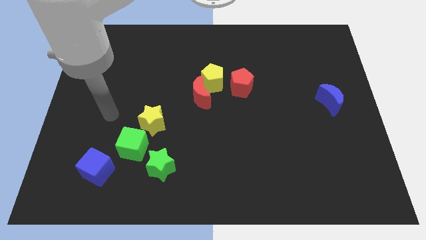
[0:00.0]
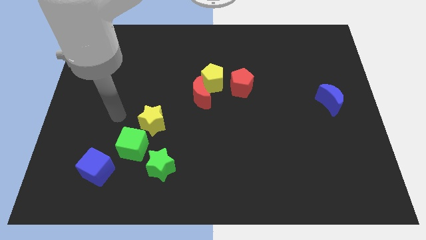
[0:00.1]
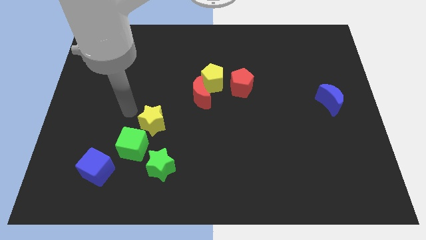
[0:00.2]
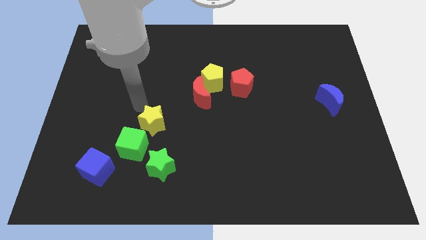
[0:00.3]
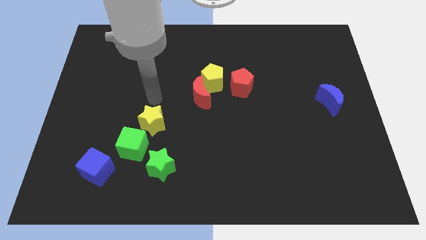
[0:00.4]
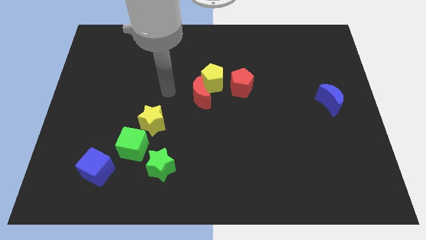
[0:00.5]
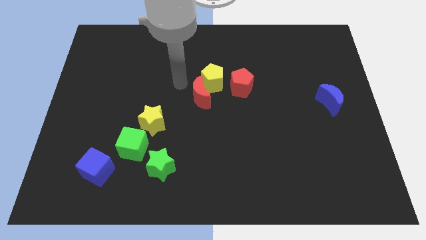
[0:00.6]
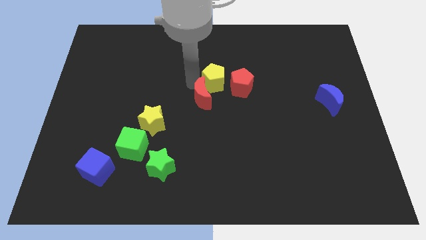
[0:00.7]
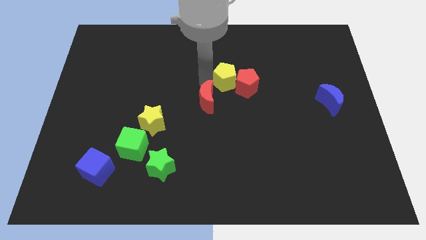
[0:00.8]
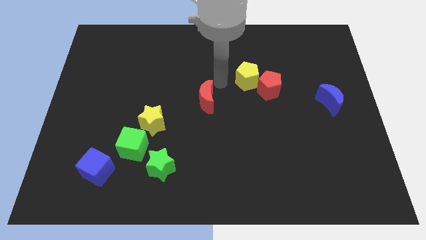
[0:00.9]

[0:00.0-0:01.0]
pull the red moon apart from the yellow pentagon

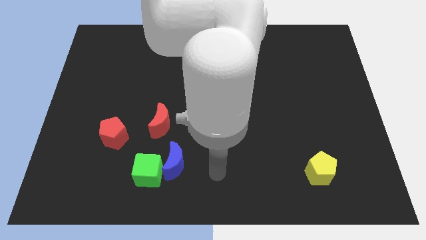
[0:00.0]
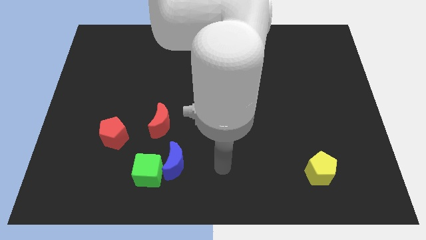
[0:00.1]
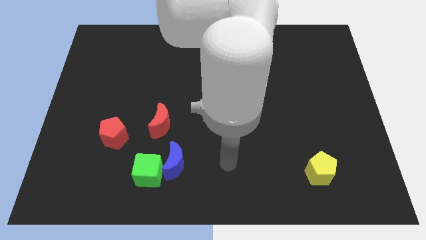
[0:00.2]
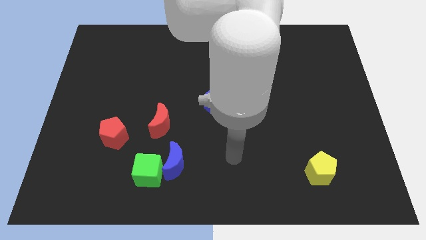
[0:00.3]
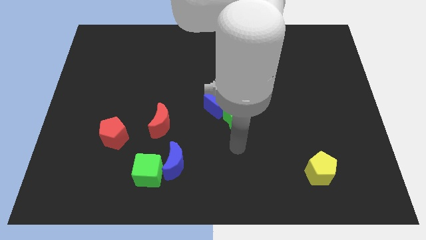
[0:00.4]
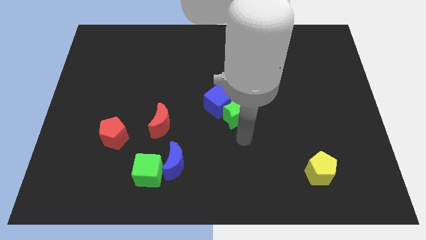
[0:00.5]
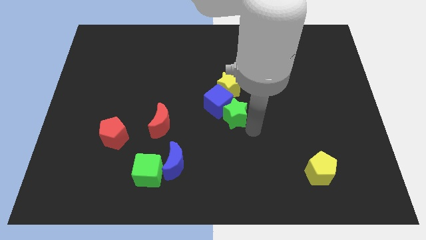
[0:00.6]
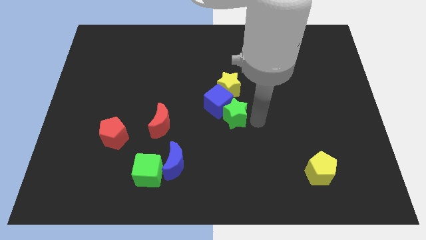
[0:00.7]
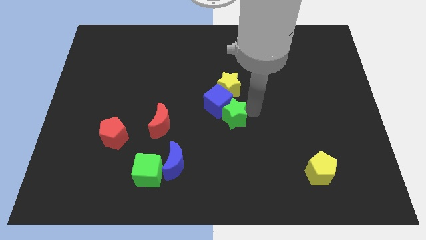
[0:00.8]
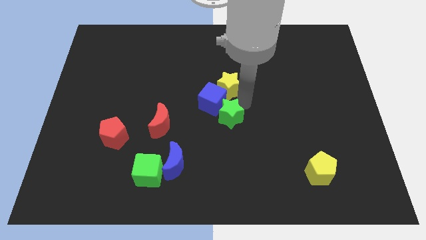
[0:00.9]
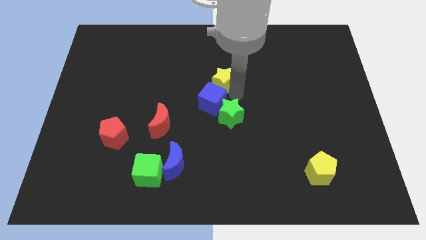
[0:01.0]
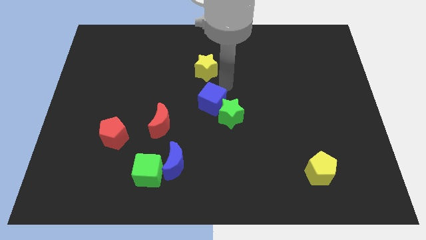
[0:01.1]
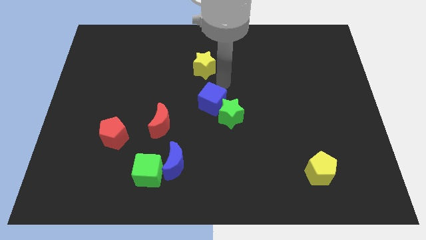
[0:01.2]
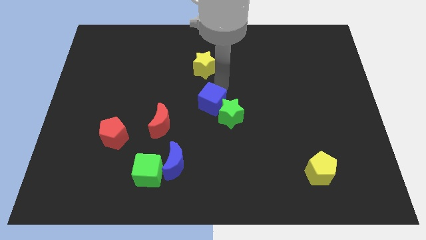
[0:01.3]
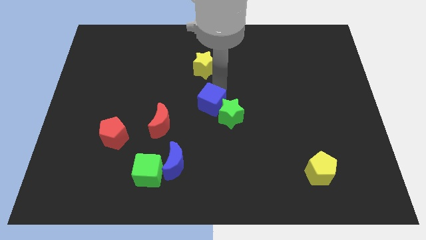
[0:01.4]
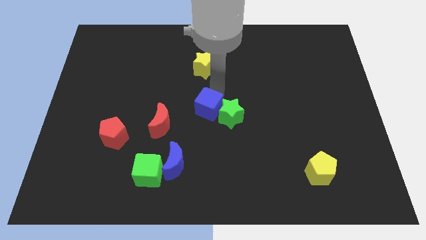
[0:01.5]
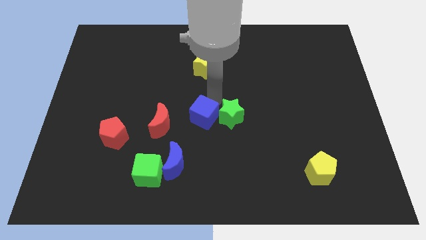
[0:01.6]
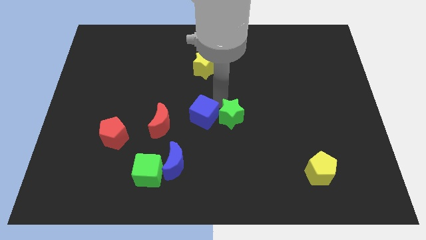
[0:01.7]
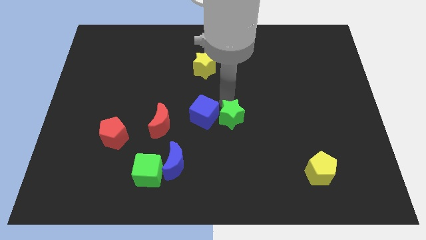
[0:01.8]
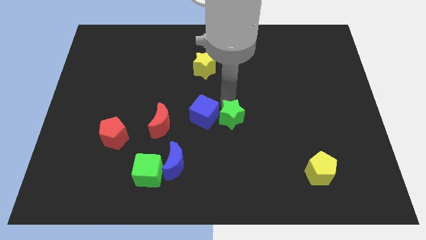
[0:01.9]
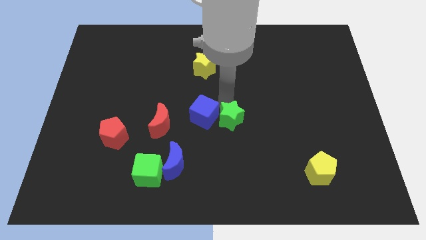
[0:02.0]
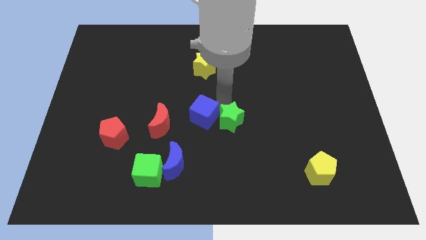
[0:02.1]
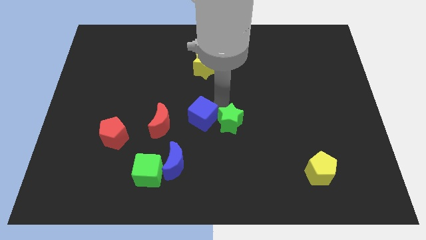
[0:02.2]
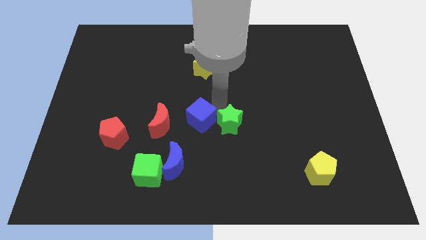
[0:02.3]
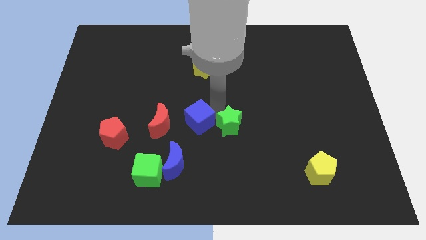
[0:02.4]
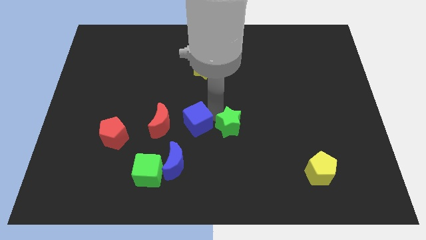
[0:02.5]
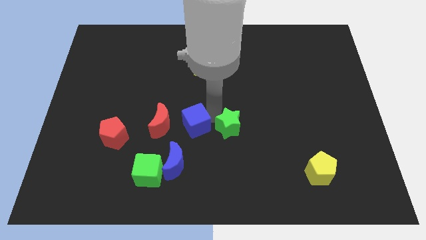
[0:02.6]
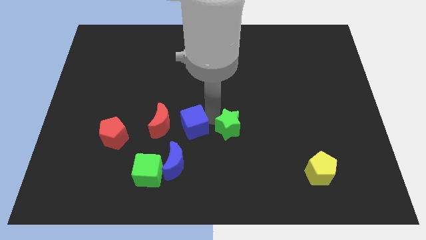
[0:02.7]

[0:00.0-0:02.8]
separate the blue cube from the green star and yellow star

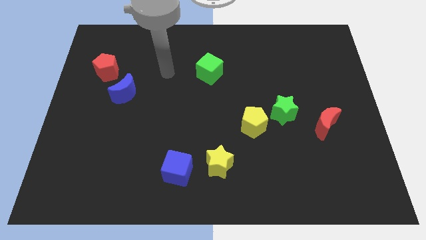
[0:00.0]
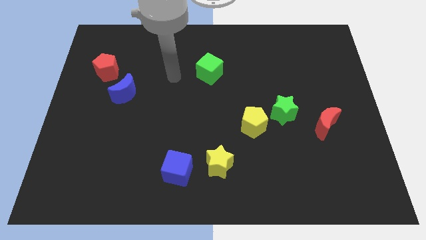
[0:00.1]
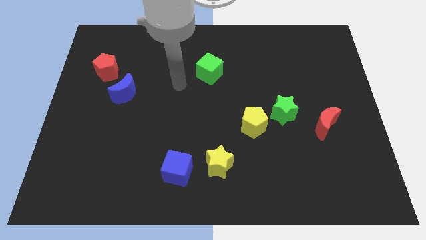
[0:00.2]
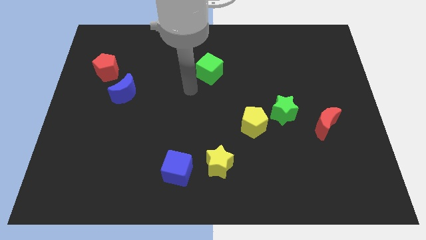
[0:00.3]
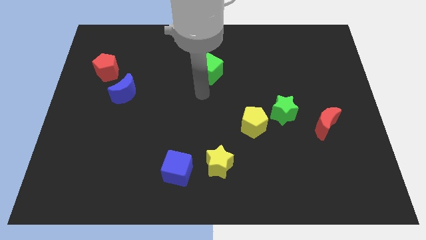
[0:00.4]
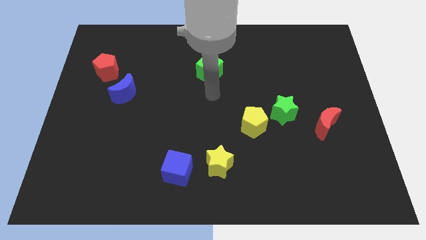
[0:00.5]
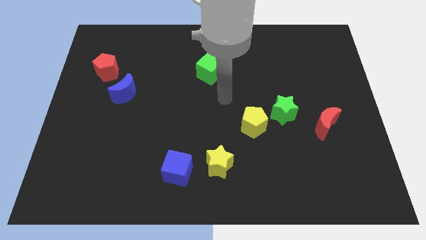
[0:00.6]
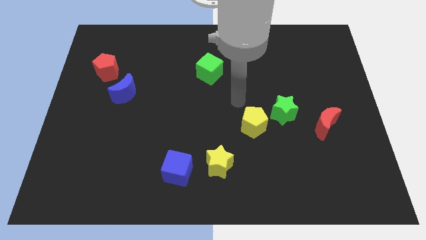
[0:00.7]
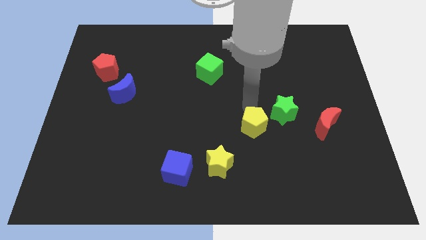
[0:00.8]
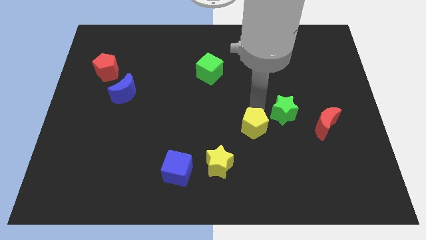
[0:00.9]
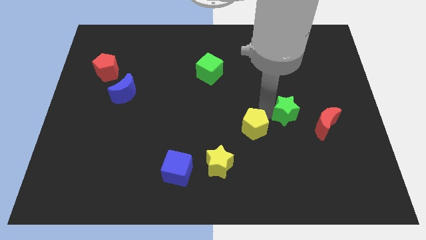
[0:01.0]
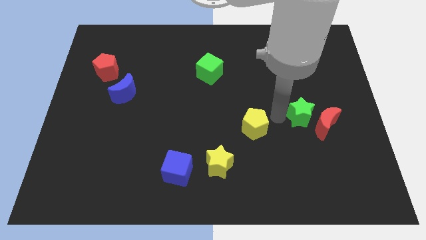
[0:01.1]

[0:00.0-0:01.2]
pull the yellow pentagon apart from the green star

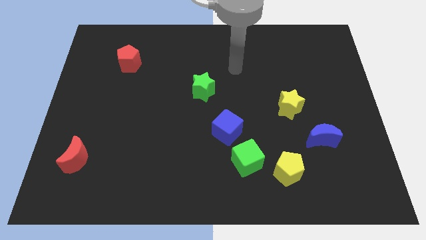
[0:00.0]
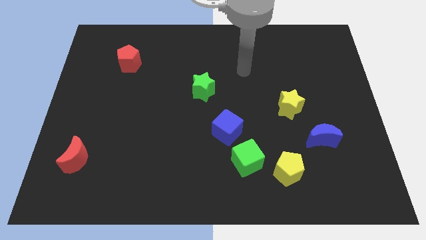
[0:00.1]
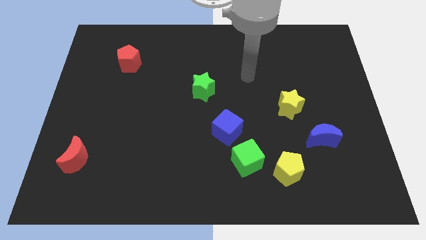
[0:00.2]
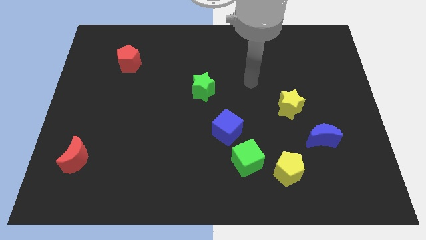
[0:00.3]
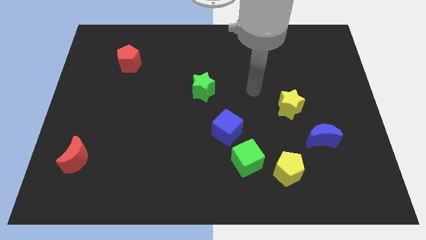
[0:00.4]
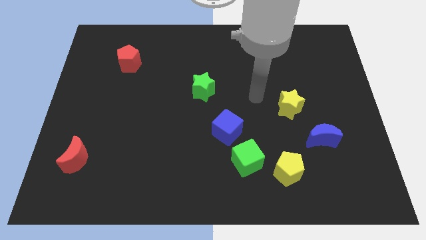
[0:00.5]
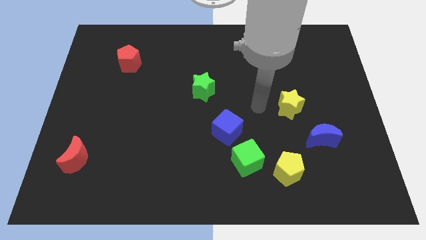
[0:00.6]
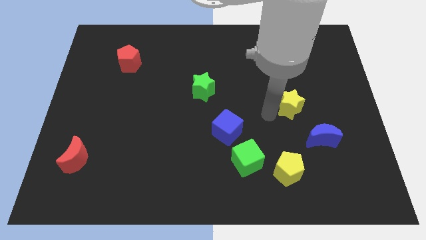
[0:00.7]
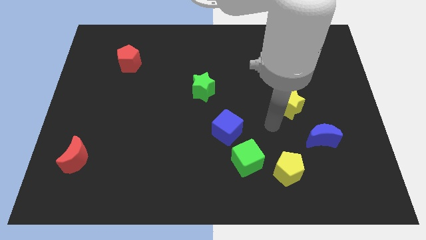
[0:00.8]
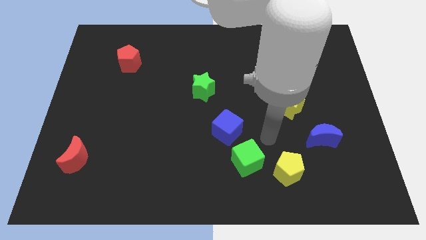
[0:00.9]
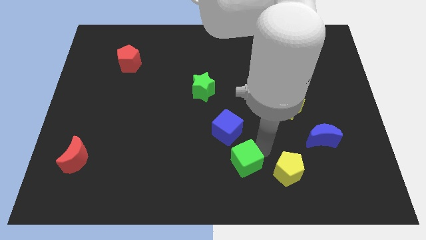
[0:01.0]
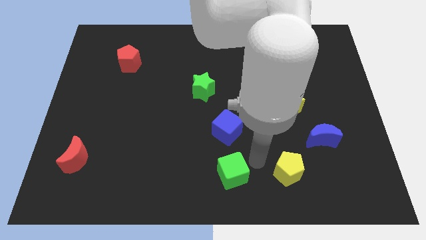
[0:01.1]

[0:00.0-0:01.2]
move the yellow pentagon away from the green cube

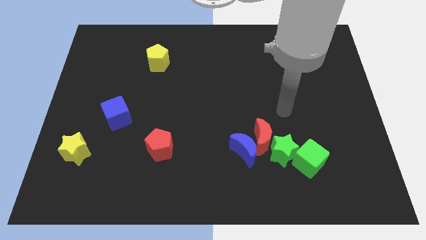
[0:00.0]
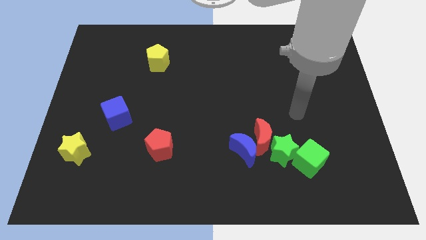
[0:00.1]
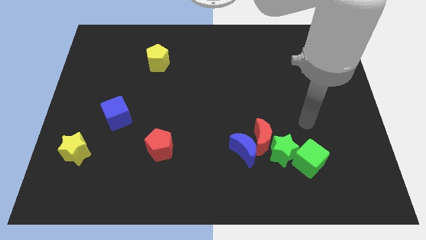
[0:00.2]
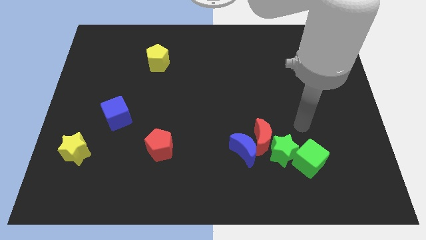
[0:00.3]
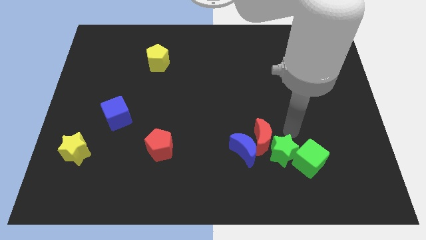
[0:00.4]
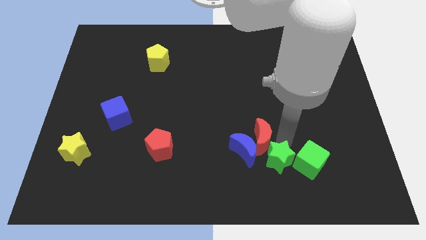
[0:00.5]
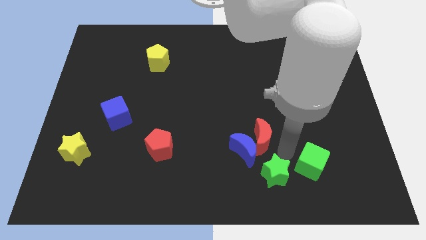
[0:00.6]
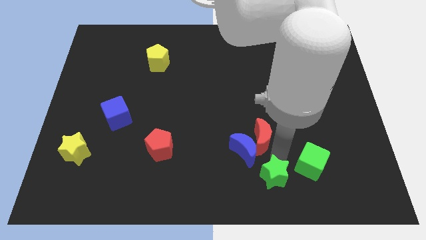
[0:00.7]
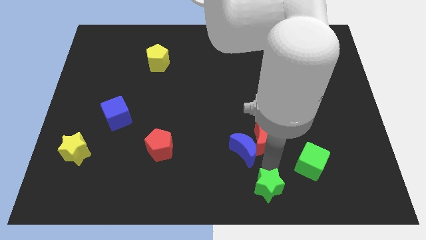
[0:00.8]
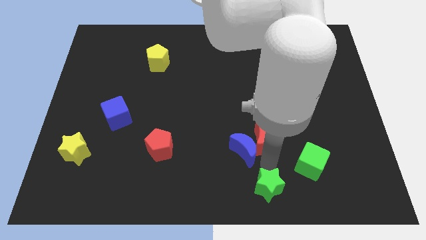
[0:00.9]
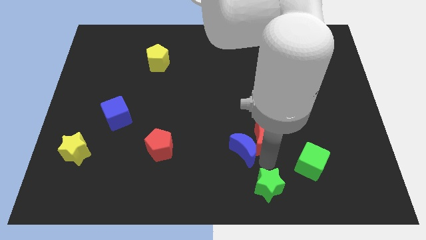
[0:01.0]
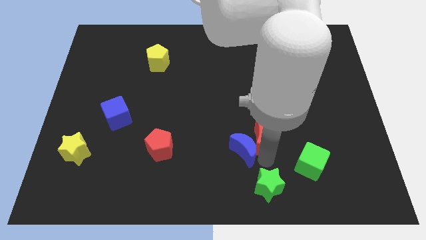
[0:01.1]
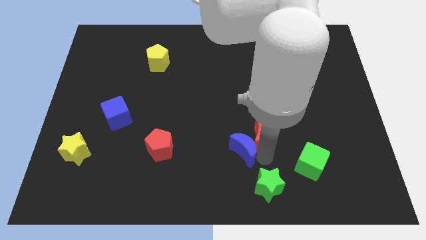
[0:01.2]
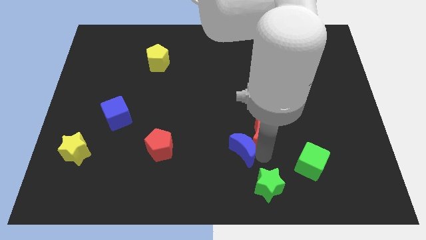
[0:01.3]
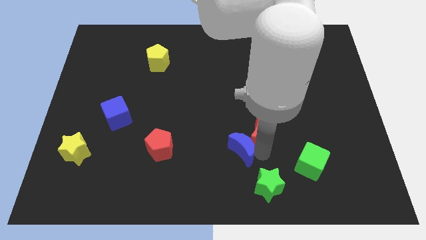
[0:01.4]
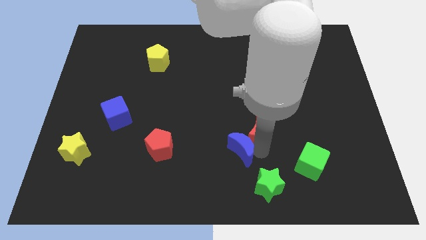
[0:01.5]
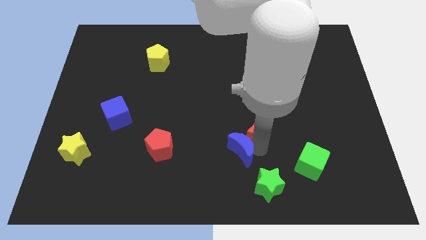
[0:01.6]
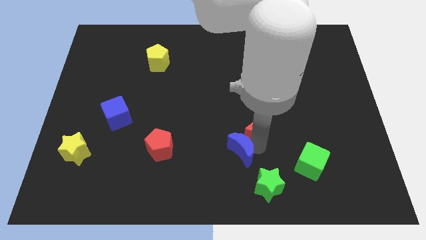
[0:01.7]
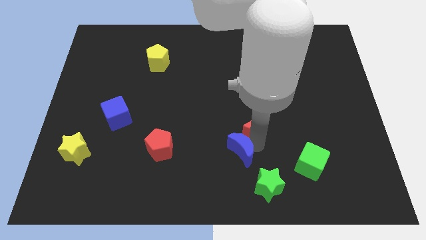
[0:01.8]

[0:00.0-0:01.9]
move the red moon away from the blue moon and green star

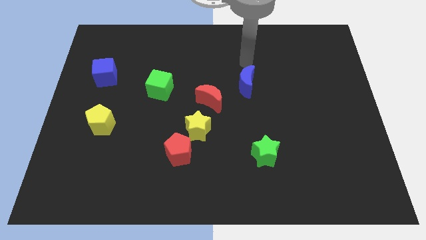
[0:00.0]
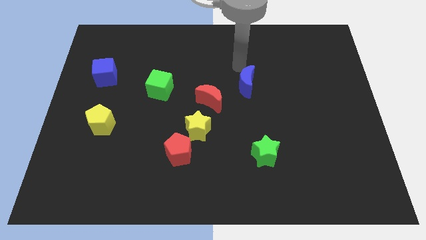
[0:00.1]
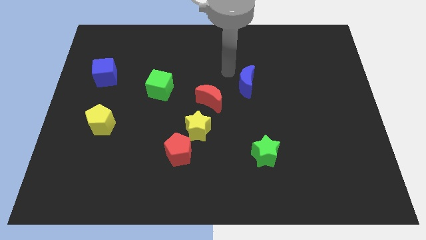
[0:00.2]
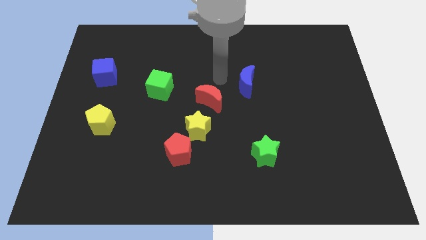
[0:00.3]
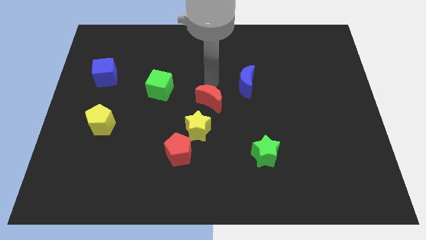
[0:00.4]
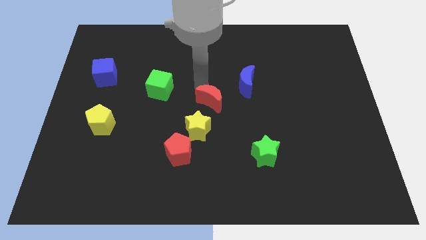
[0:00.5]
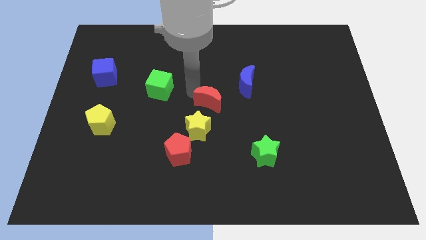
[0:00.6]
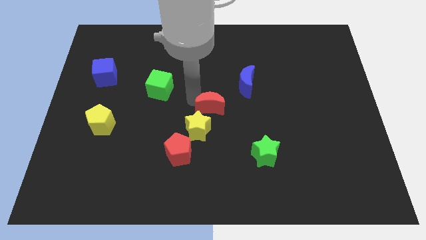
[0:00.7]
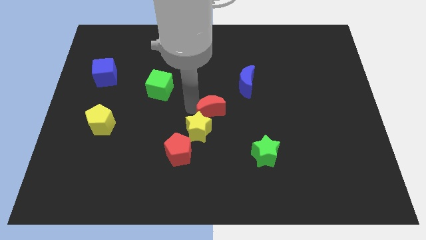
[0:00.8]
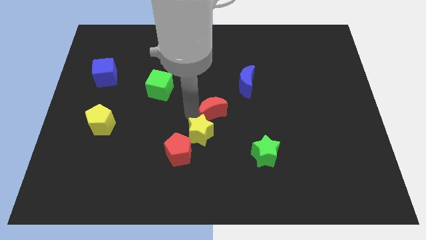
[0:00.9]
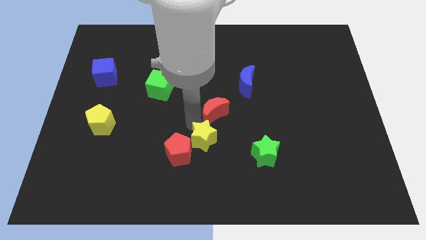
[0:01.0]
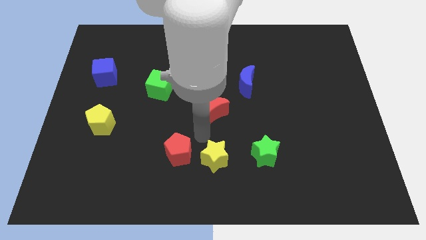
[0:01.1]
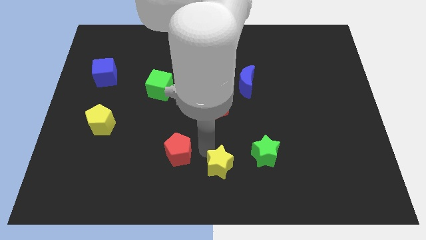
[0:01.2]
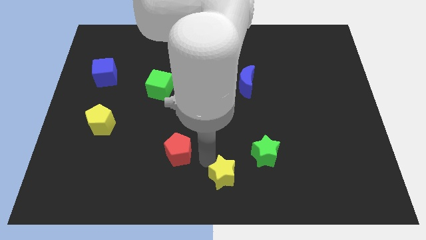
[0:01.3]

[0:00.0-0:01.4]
separate the red pentagon from the yellow star
